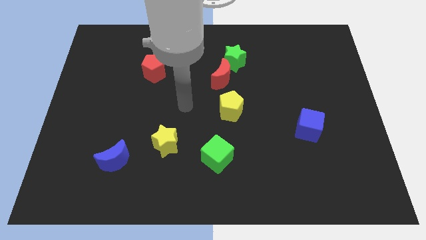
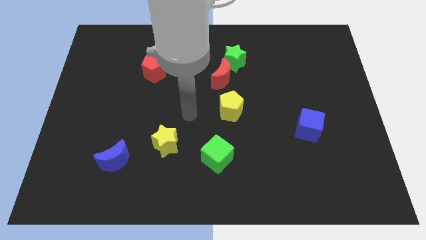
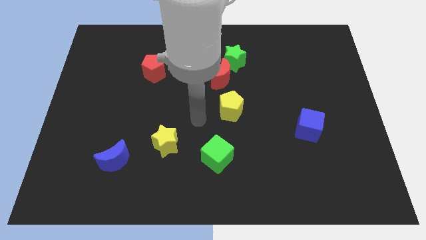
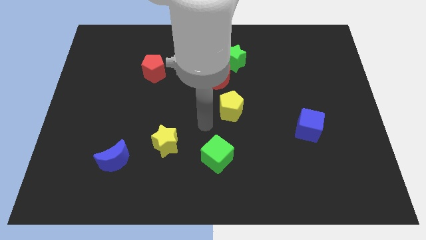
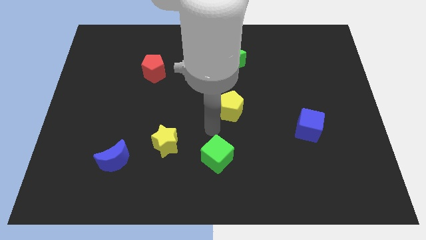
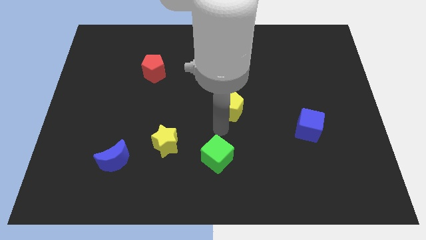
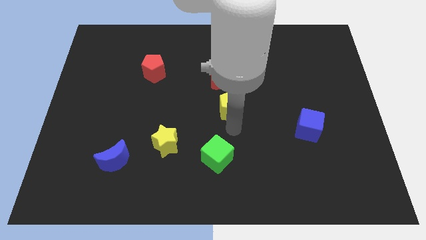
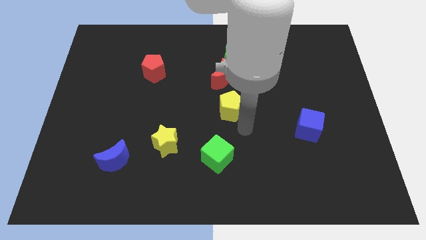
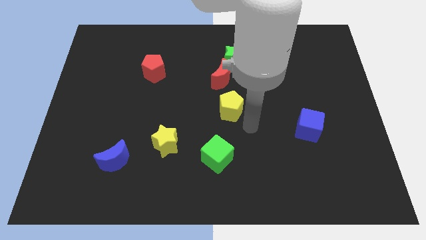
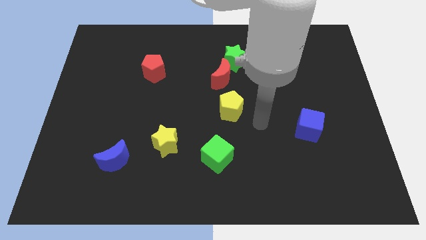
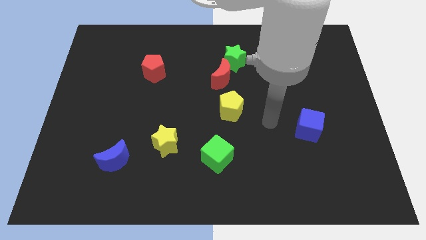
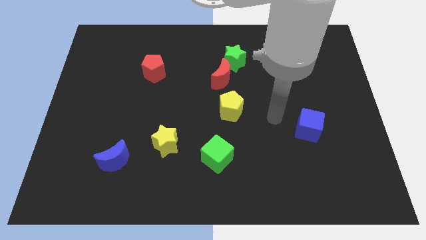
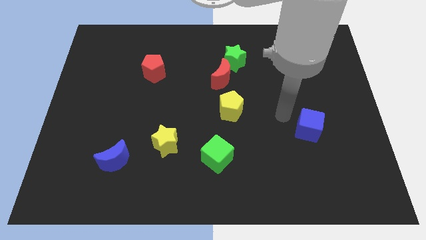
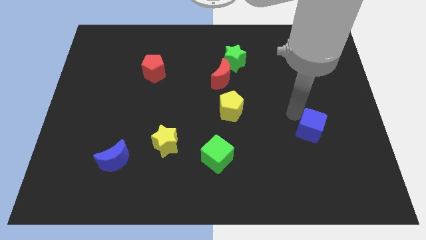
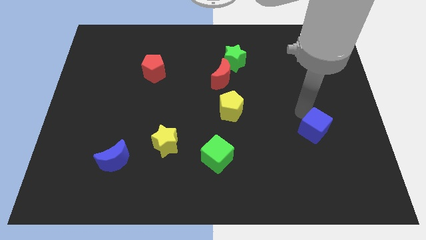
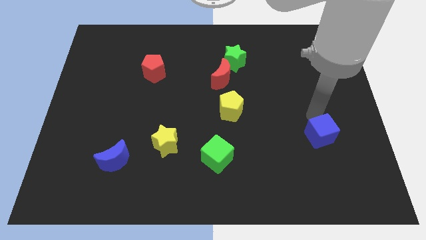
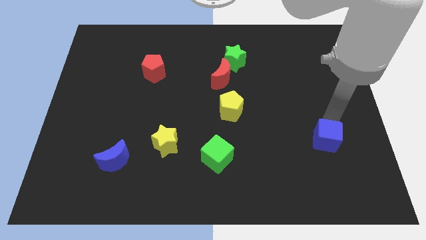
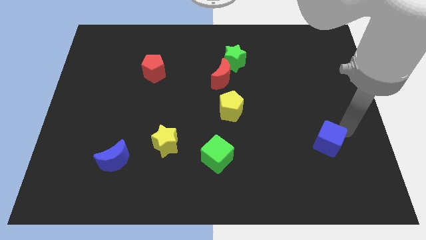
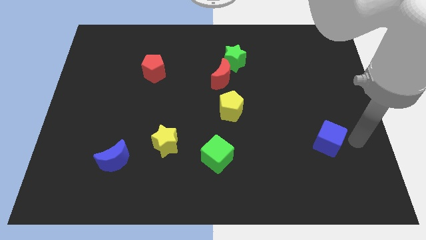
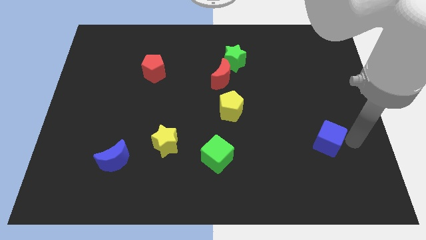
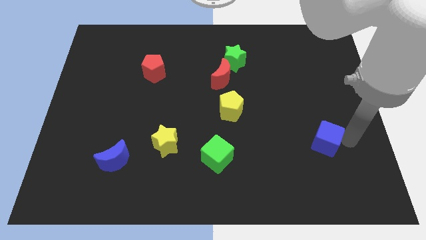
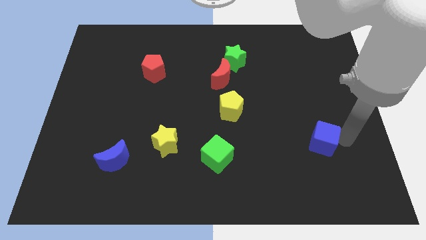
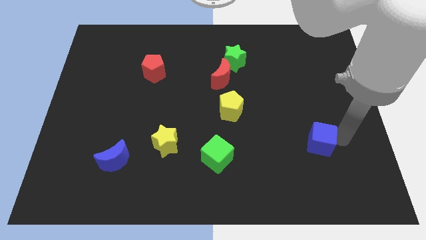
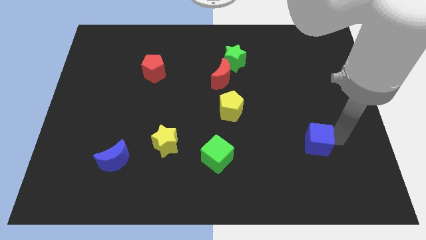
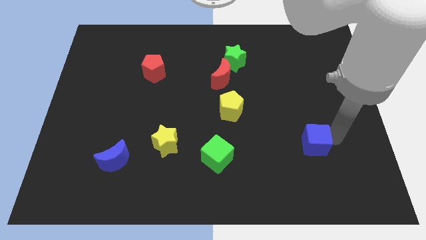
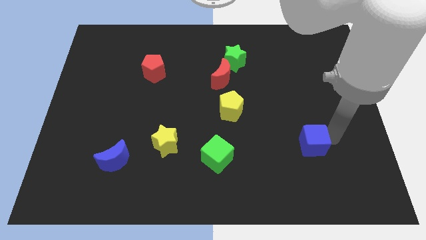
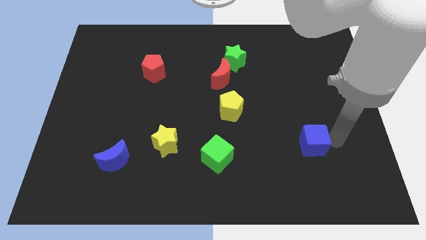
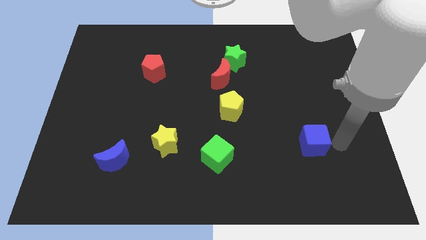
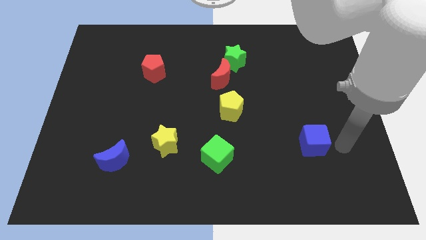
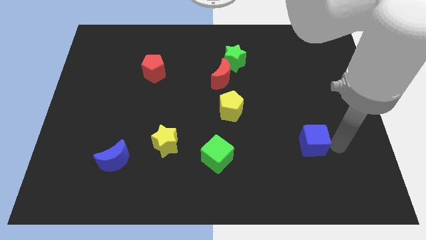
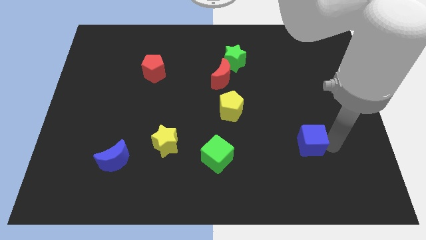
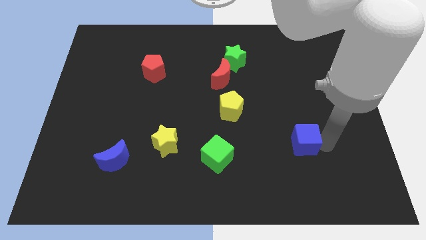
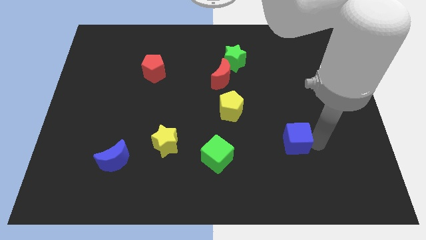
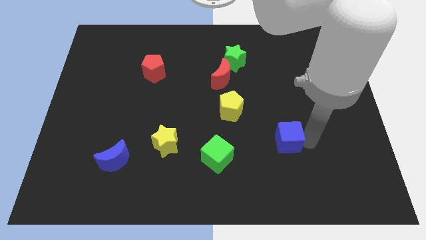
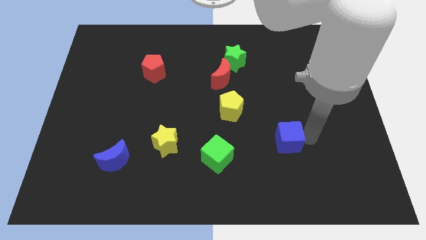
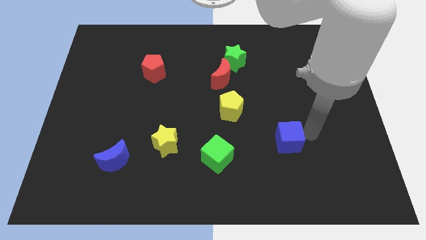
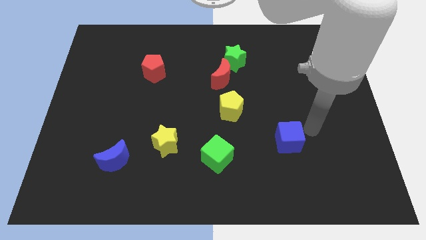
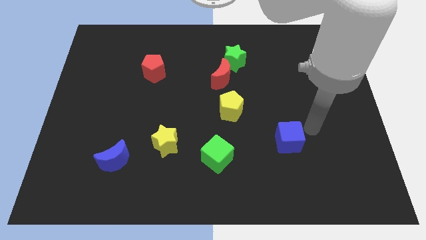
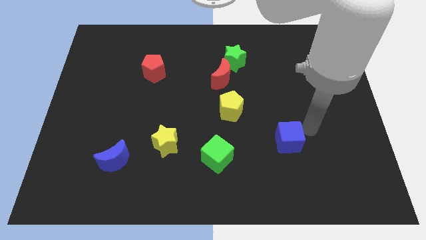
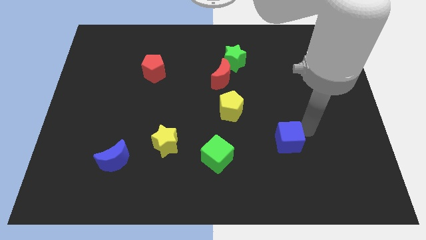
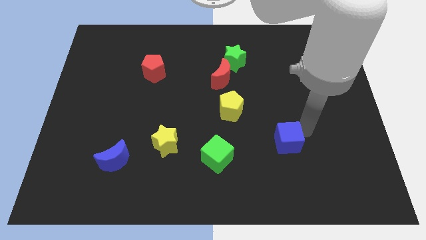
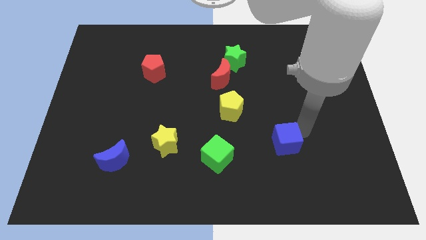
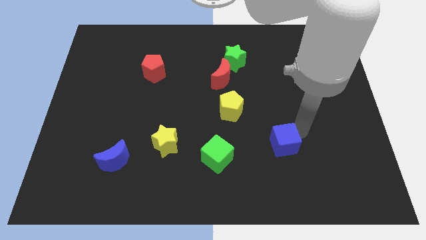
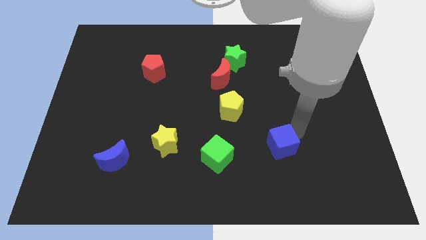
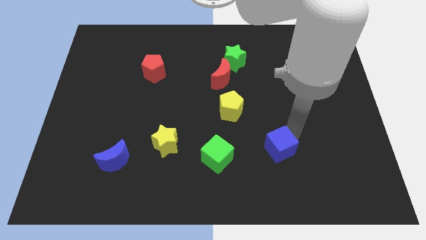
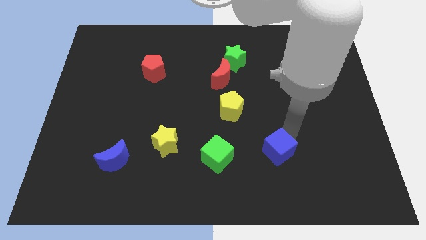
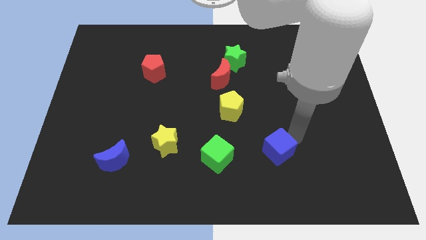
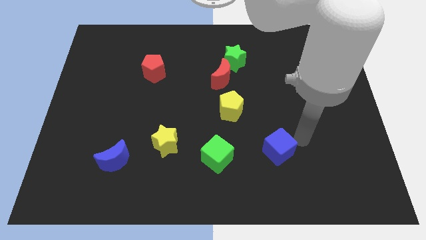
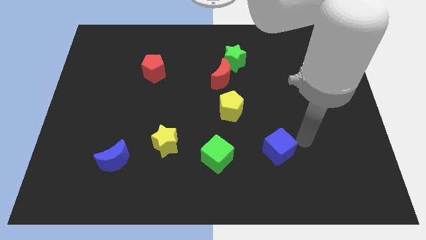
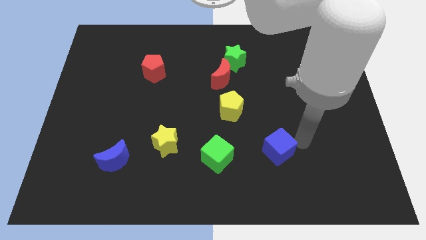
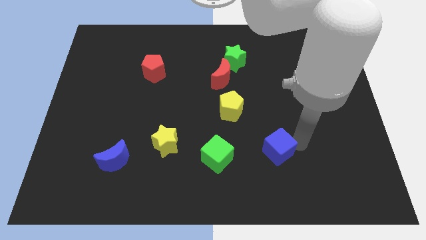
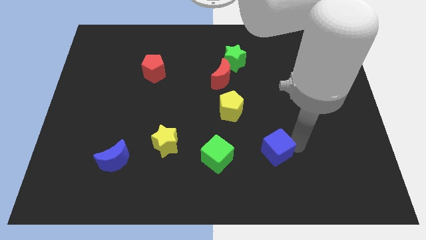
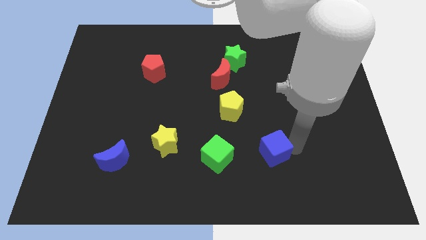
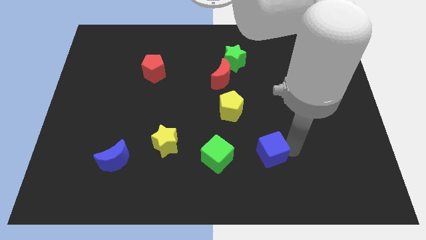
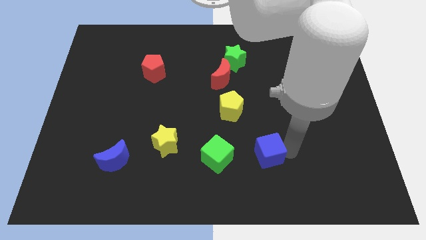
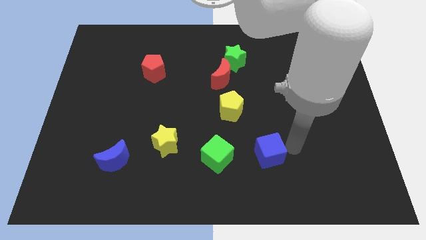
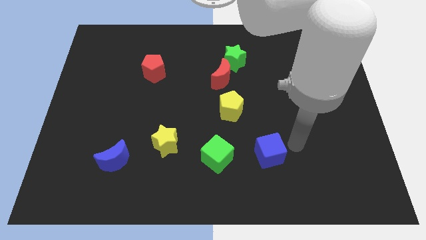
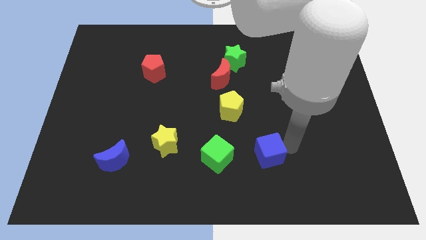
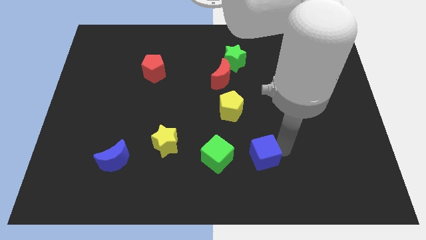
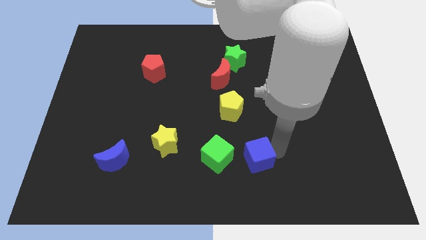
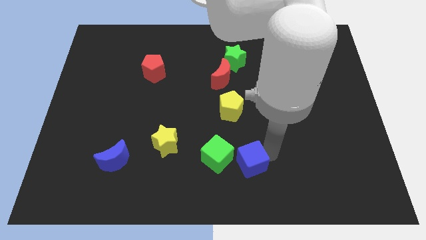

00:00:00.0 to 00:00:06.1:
move the blue cube below the yellow pentagon

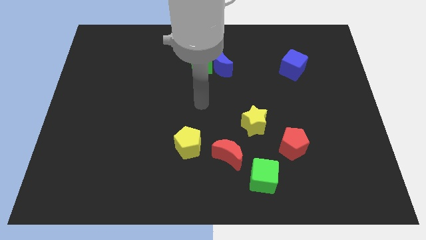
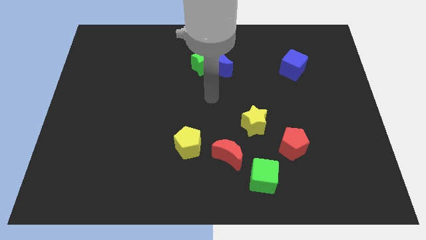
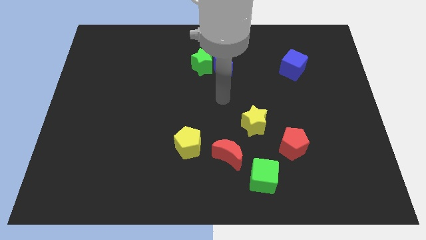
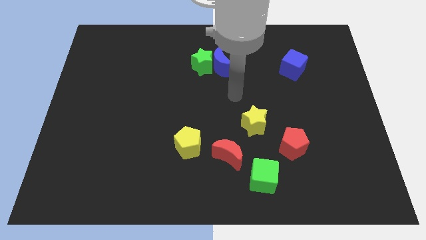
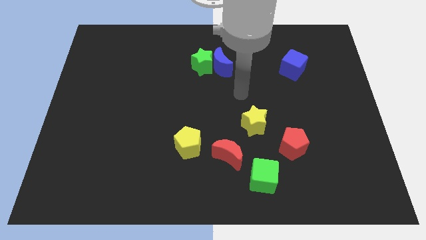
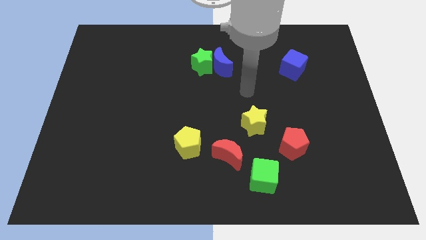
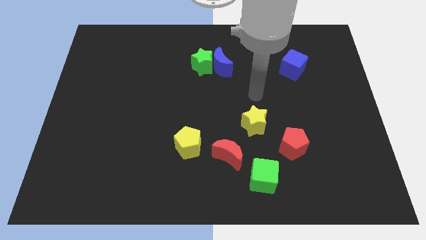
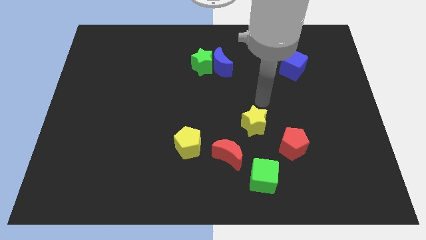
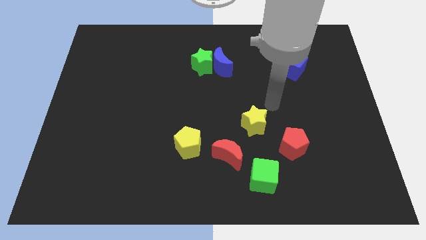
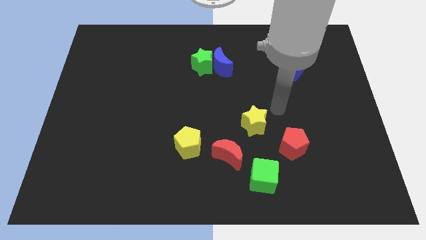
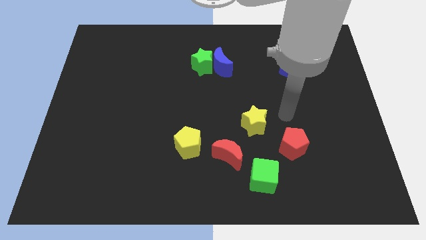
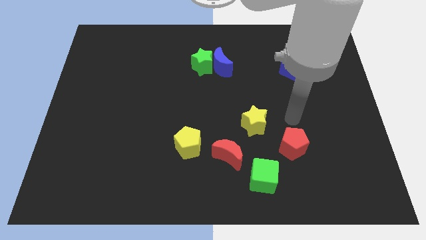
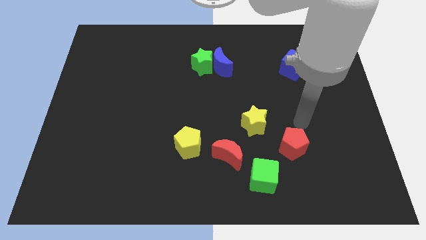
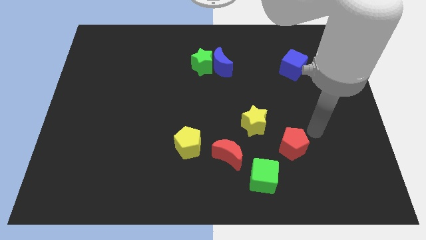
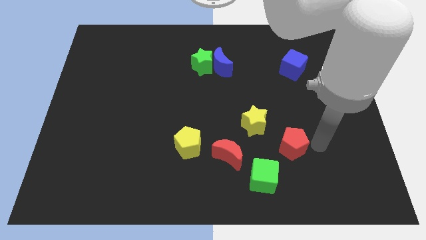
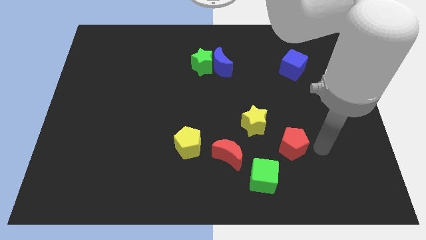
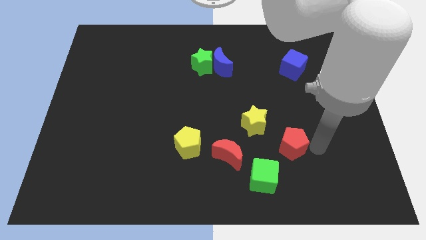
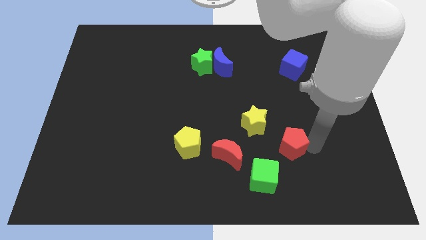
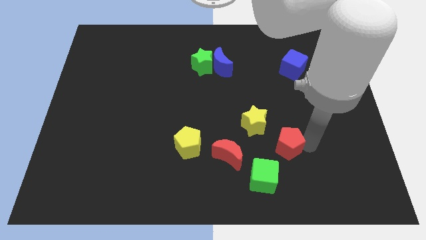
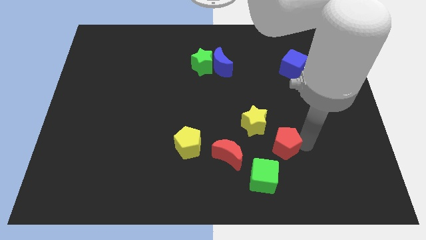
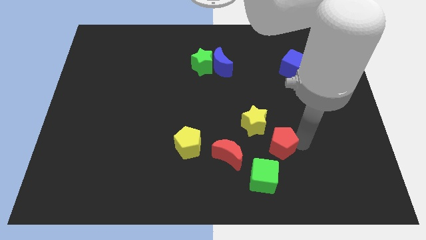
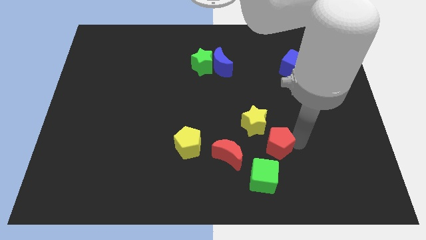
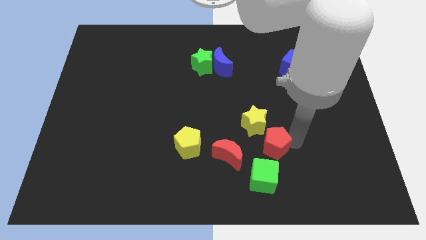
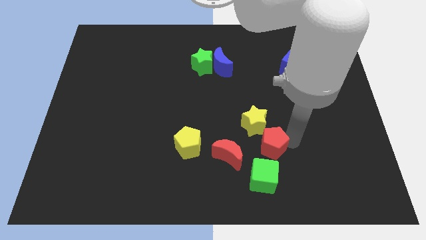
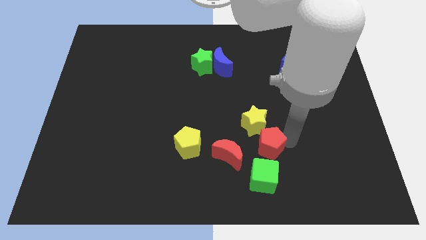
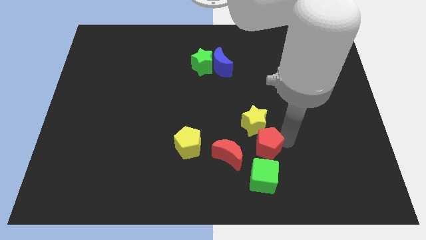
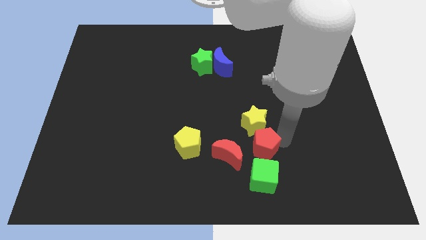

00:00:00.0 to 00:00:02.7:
put the red pentagon to the right of the yellow pentagon
